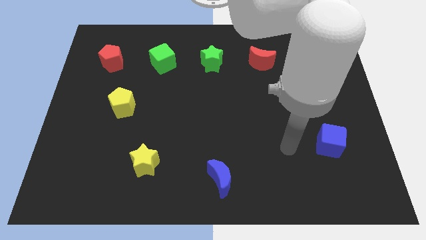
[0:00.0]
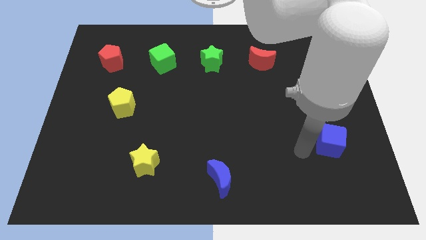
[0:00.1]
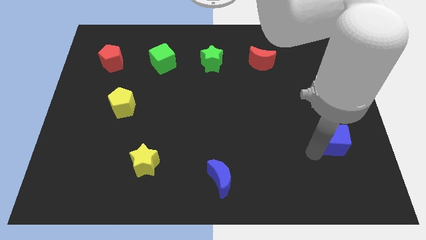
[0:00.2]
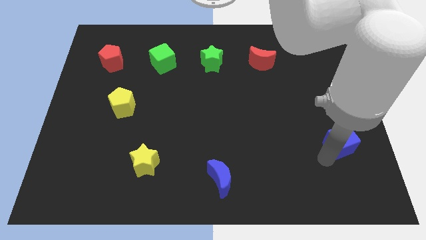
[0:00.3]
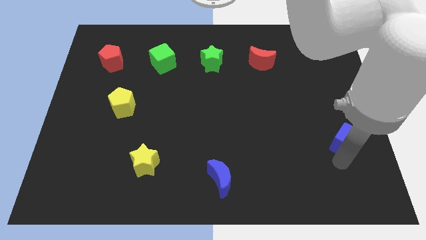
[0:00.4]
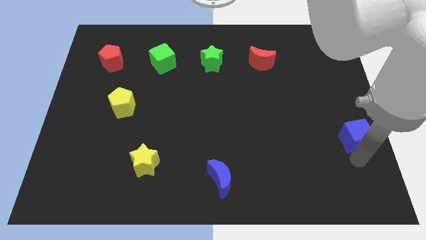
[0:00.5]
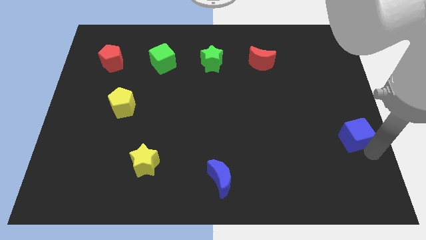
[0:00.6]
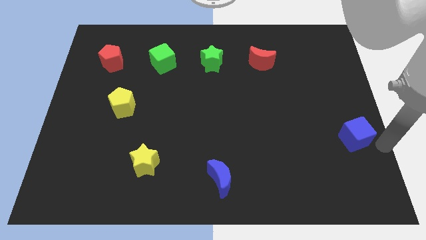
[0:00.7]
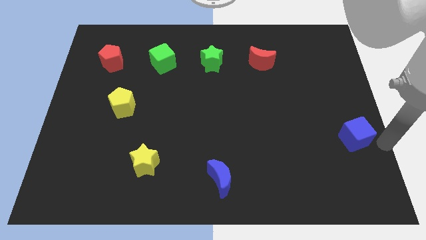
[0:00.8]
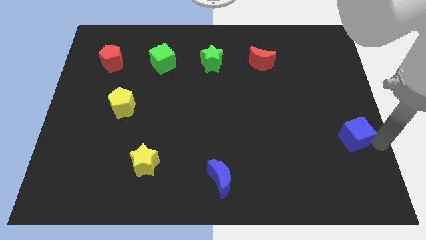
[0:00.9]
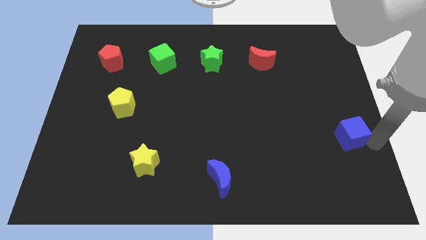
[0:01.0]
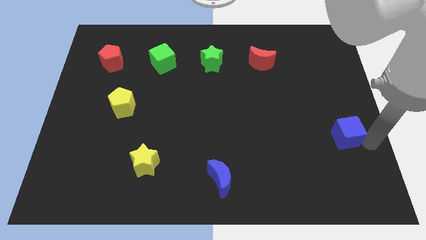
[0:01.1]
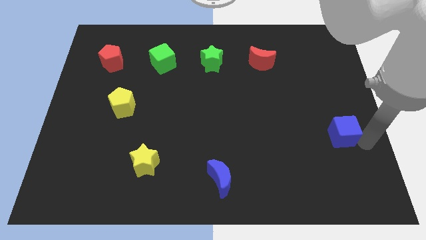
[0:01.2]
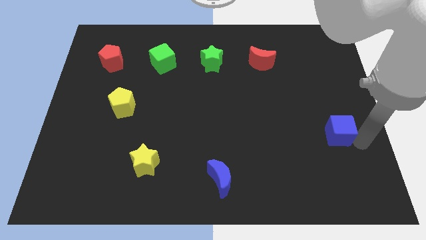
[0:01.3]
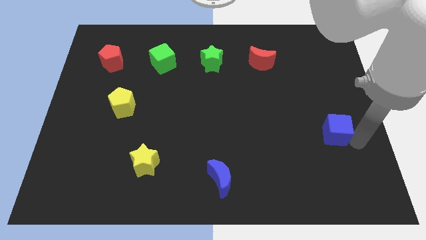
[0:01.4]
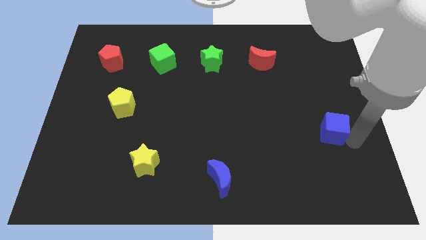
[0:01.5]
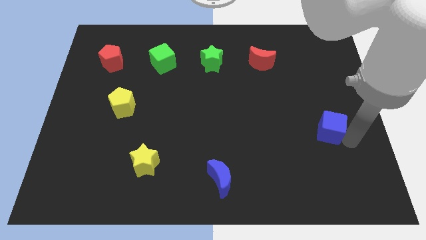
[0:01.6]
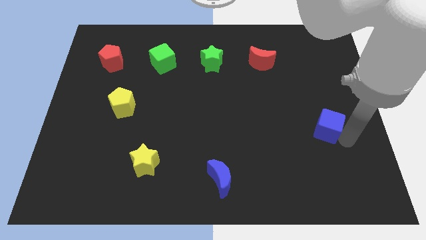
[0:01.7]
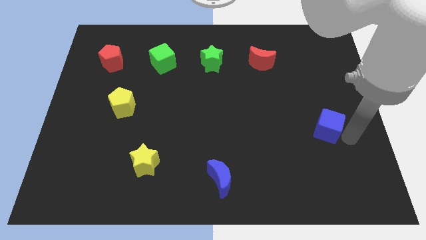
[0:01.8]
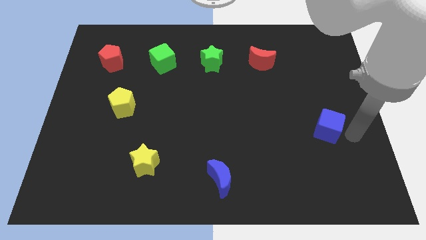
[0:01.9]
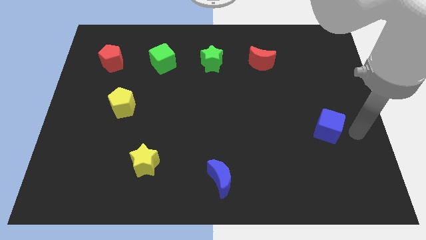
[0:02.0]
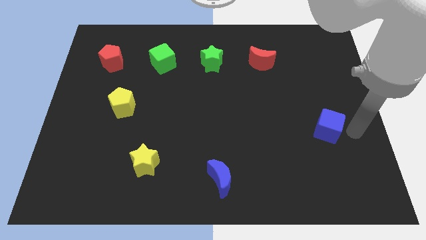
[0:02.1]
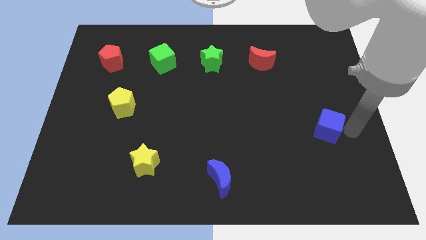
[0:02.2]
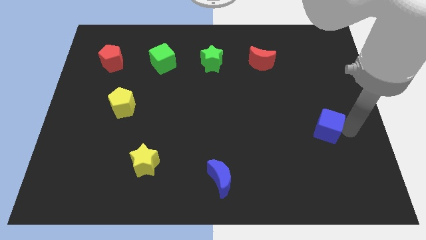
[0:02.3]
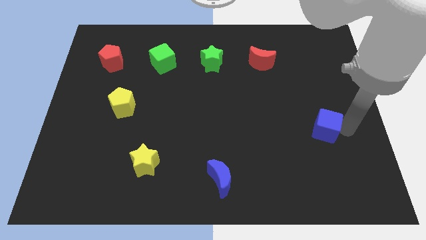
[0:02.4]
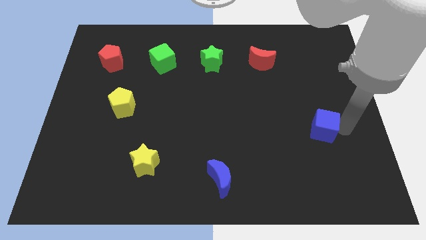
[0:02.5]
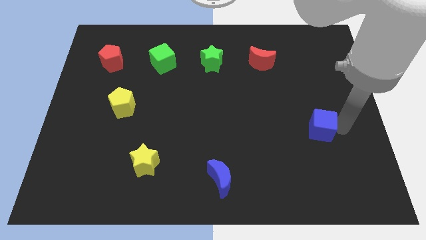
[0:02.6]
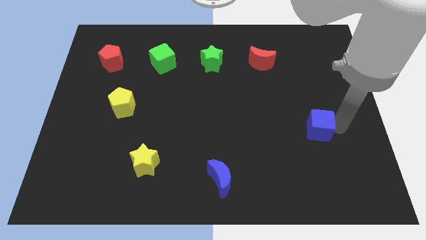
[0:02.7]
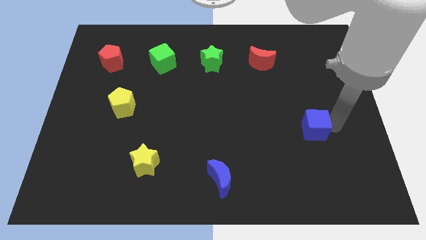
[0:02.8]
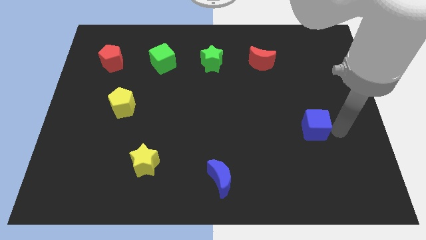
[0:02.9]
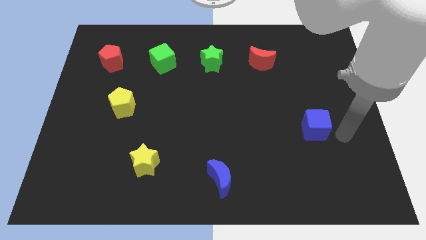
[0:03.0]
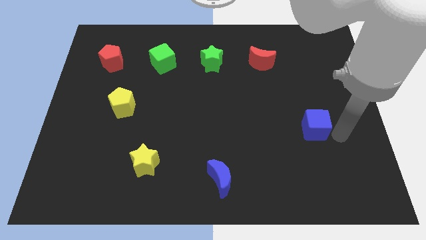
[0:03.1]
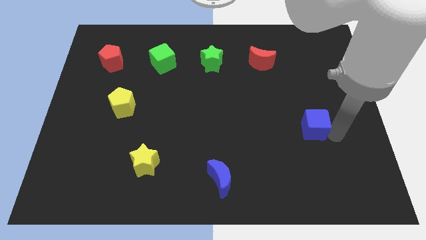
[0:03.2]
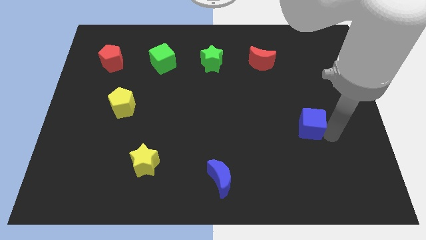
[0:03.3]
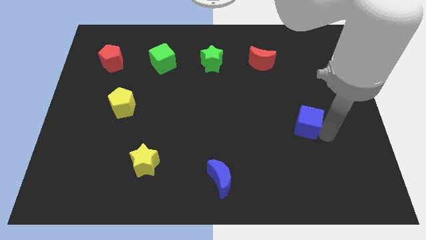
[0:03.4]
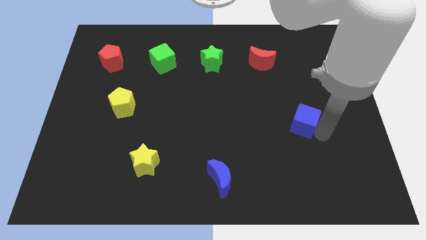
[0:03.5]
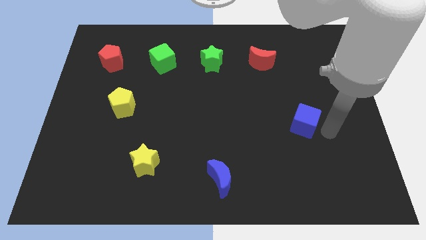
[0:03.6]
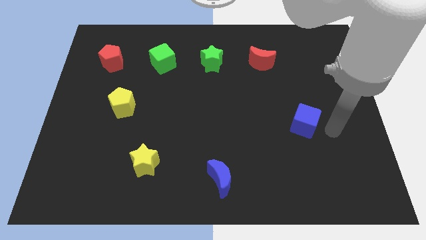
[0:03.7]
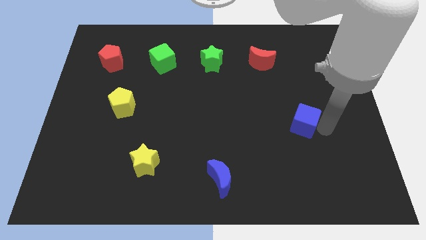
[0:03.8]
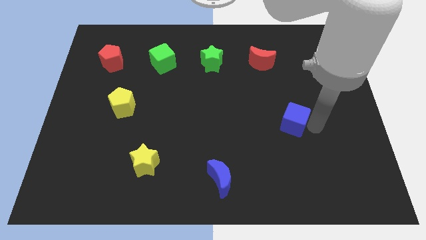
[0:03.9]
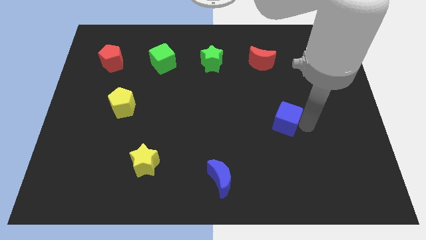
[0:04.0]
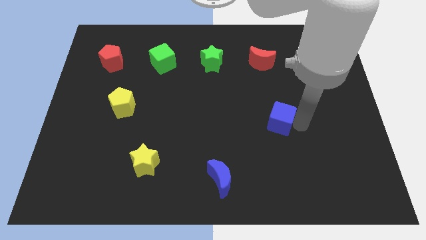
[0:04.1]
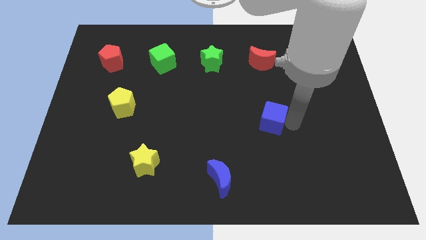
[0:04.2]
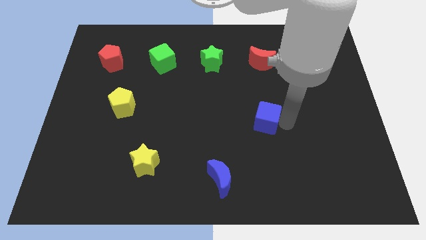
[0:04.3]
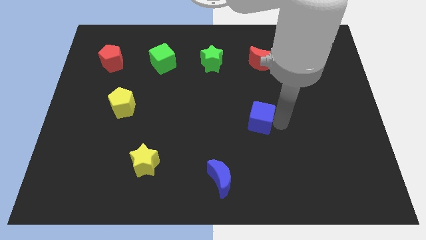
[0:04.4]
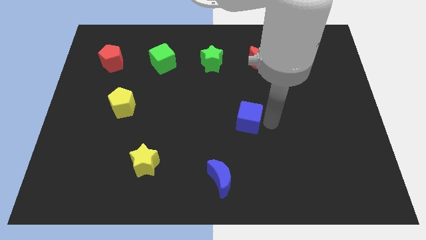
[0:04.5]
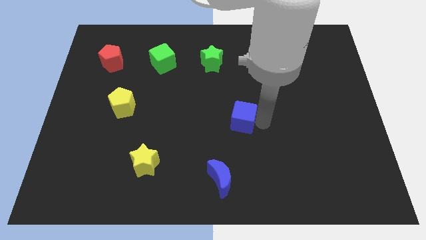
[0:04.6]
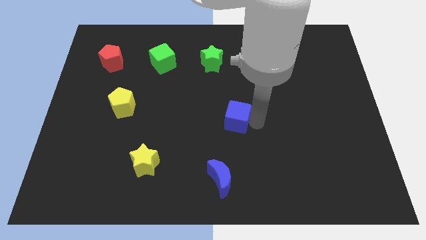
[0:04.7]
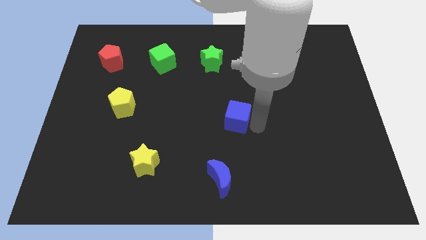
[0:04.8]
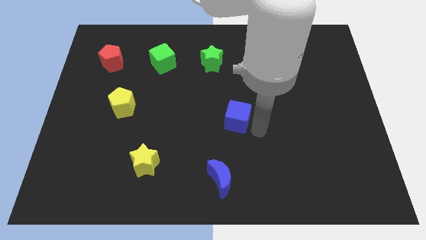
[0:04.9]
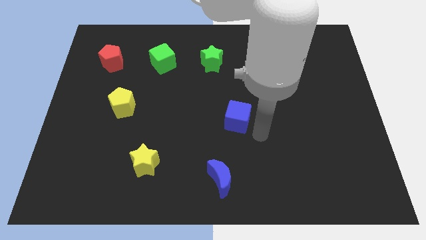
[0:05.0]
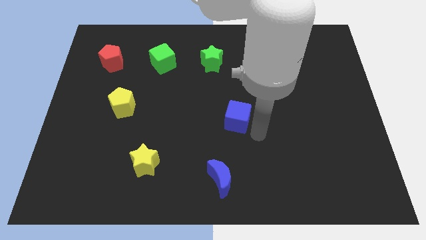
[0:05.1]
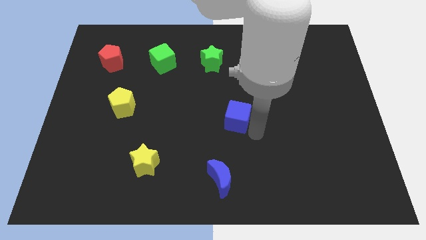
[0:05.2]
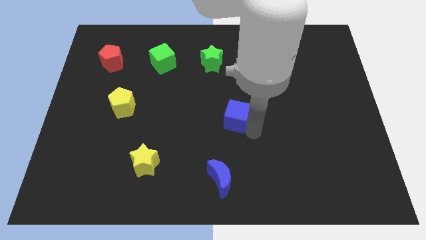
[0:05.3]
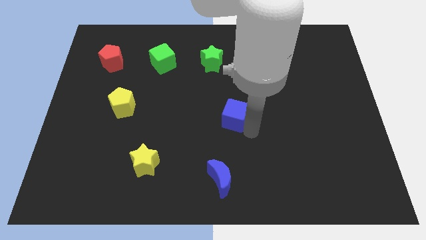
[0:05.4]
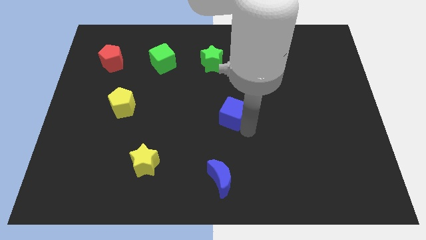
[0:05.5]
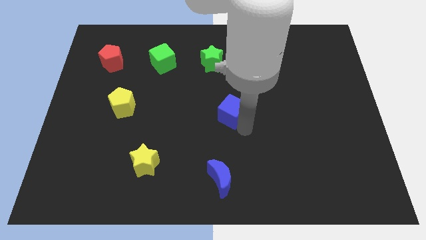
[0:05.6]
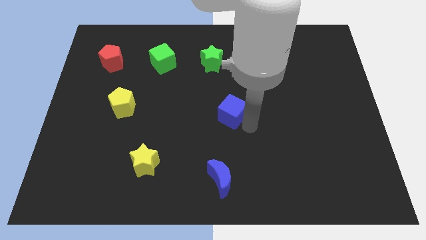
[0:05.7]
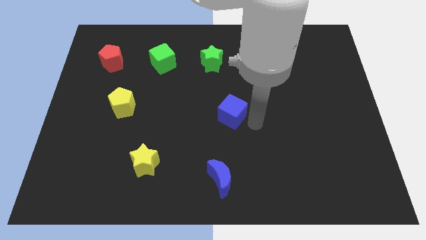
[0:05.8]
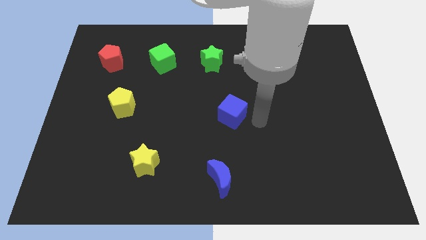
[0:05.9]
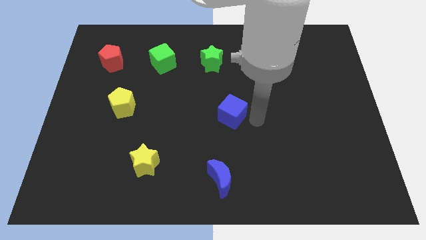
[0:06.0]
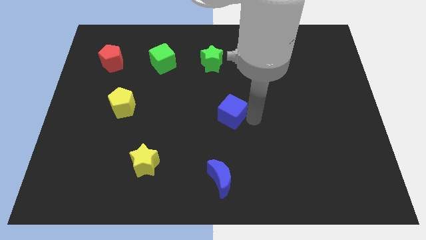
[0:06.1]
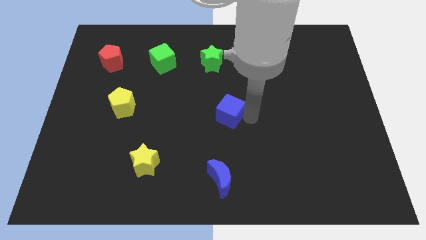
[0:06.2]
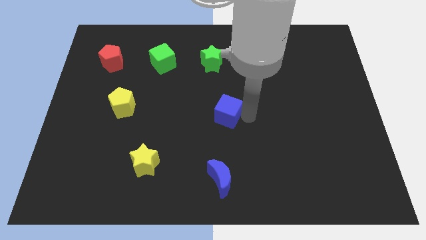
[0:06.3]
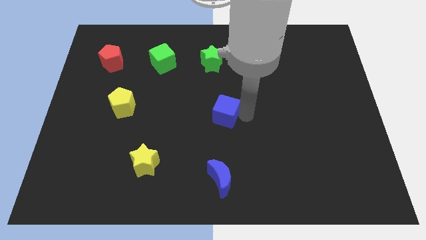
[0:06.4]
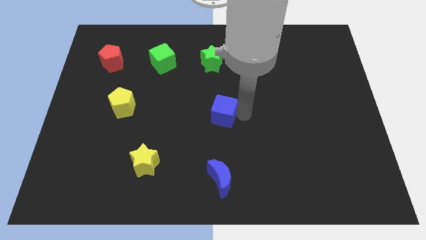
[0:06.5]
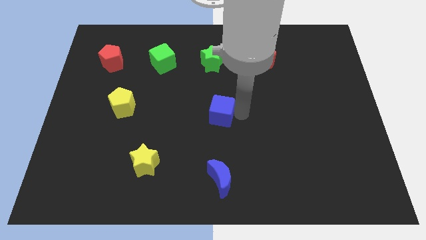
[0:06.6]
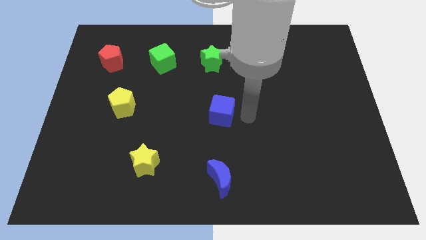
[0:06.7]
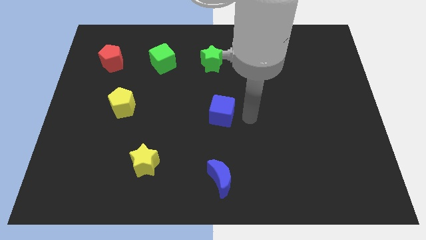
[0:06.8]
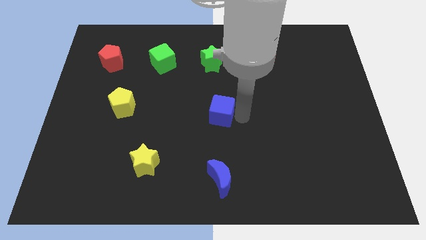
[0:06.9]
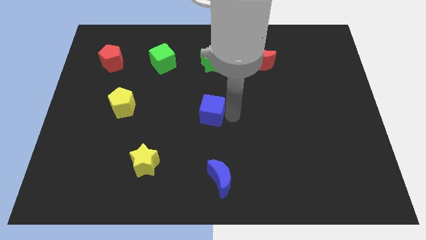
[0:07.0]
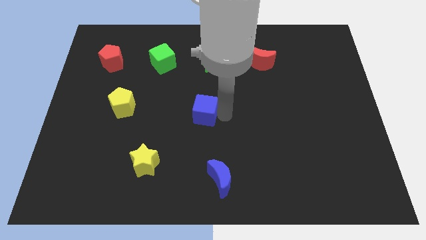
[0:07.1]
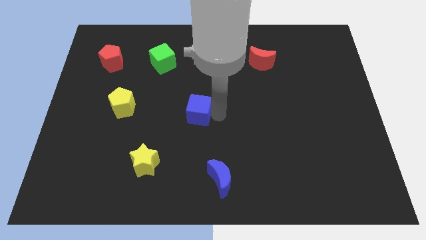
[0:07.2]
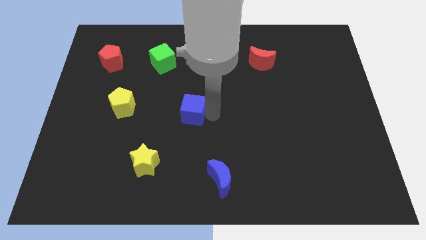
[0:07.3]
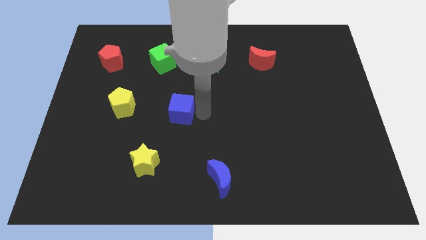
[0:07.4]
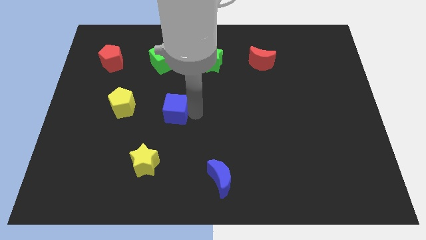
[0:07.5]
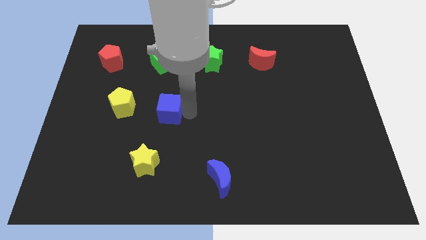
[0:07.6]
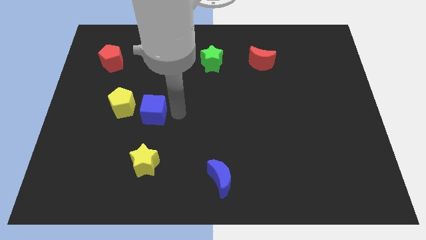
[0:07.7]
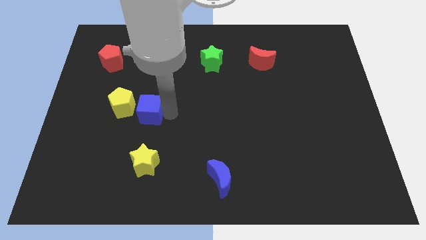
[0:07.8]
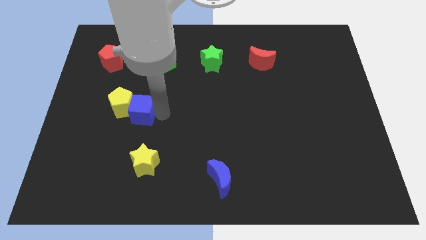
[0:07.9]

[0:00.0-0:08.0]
put the blue cube next to the yellow pentagon
